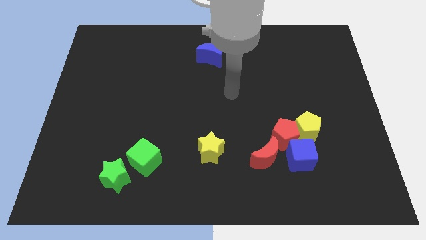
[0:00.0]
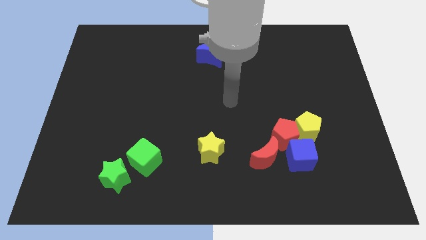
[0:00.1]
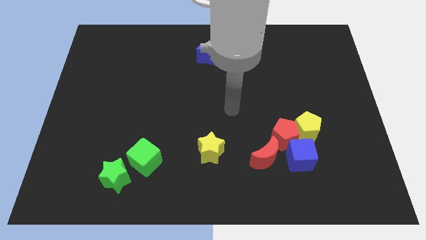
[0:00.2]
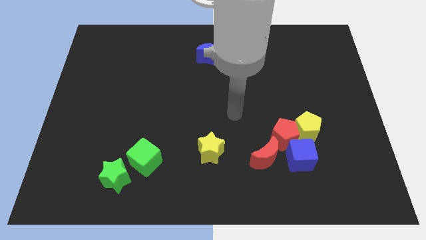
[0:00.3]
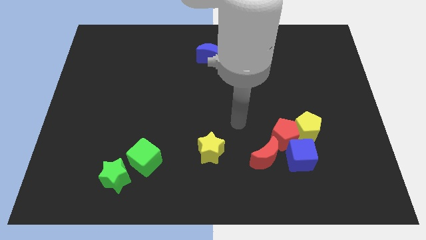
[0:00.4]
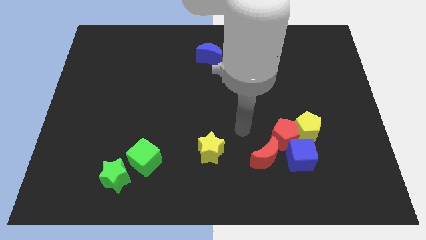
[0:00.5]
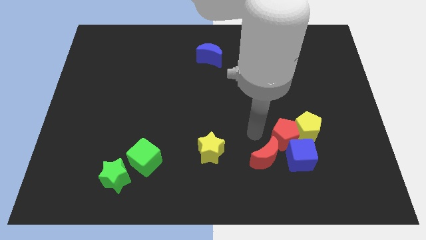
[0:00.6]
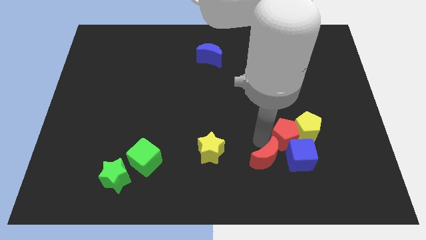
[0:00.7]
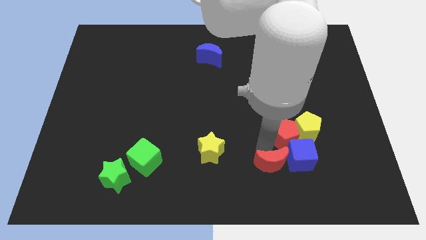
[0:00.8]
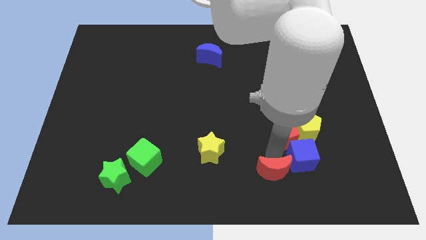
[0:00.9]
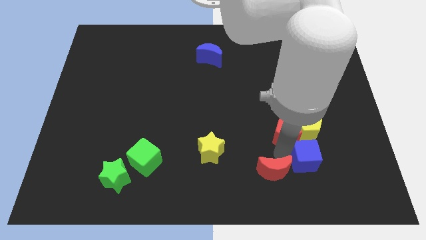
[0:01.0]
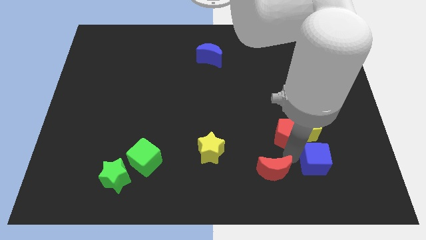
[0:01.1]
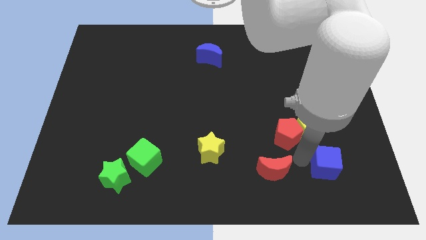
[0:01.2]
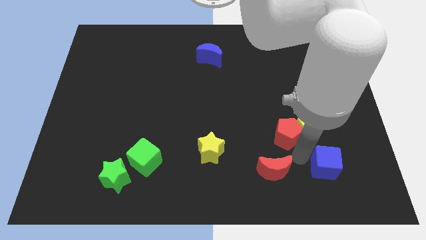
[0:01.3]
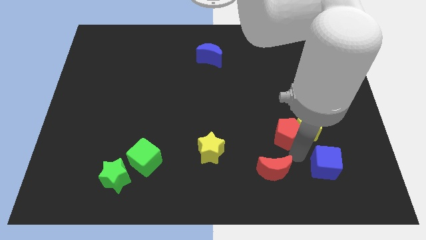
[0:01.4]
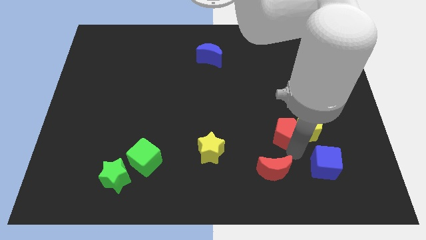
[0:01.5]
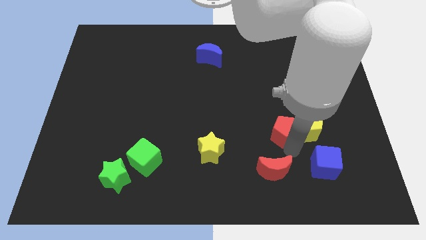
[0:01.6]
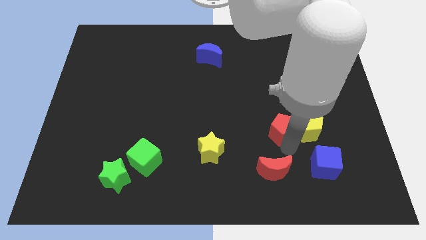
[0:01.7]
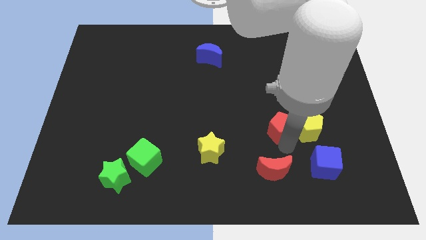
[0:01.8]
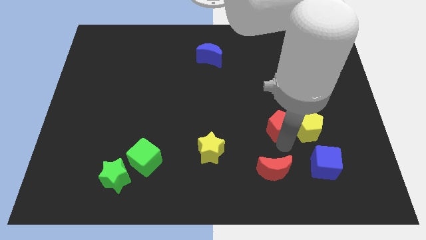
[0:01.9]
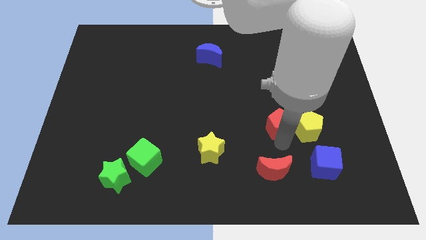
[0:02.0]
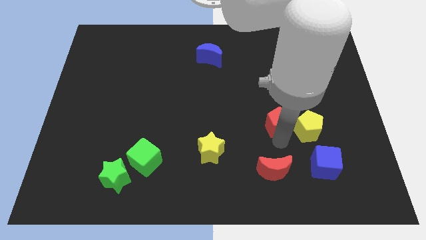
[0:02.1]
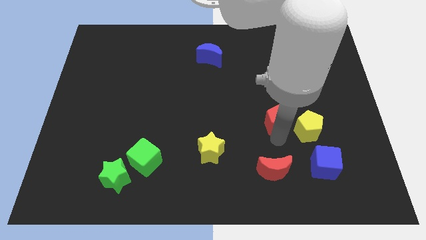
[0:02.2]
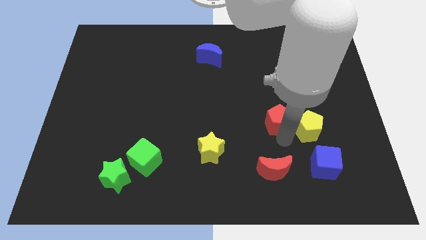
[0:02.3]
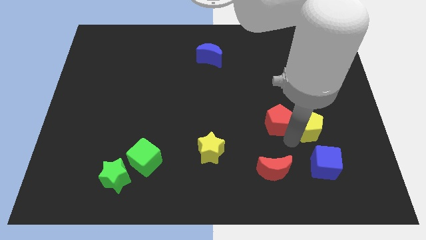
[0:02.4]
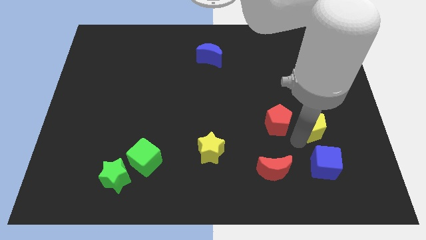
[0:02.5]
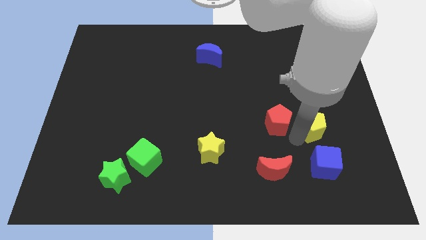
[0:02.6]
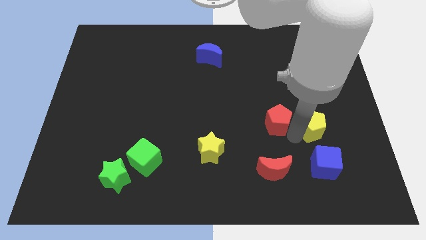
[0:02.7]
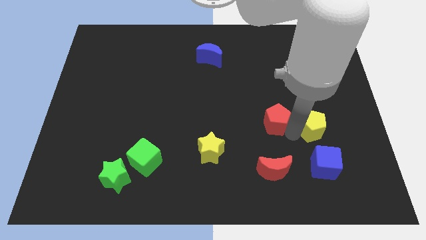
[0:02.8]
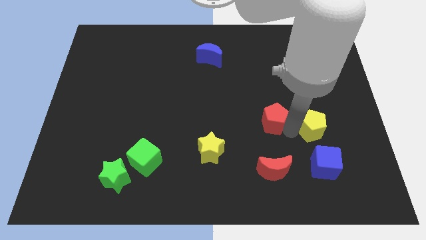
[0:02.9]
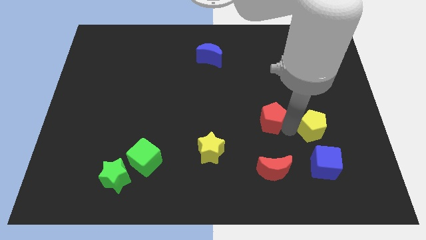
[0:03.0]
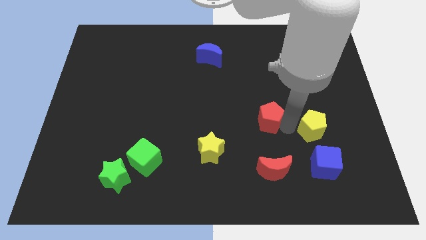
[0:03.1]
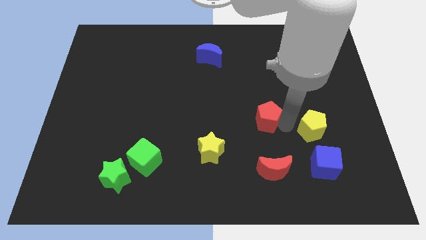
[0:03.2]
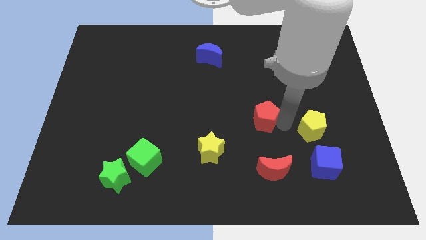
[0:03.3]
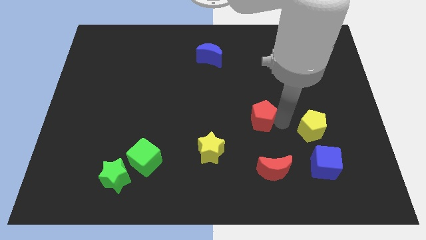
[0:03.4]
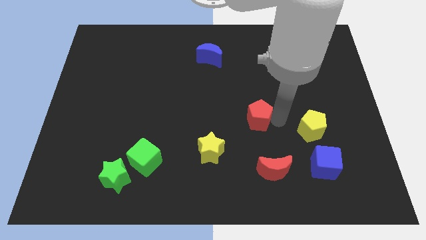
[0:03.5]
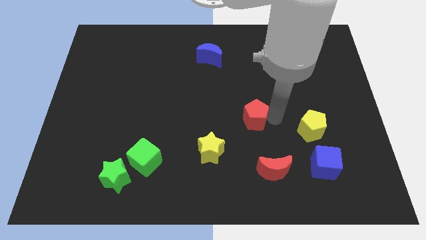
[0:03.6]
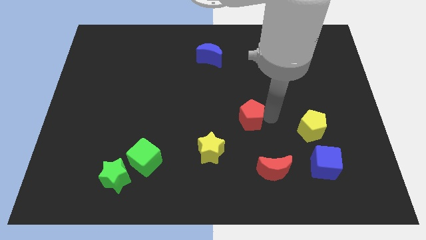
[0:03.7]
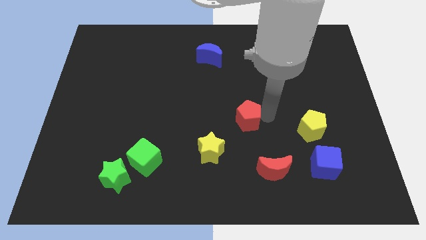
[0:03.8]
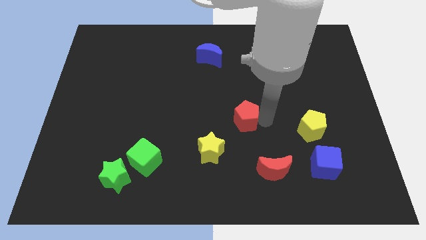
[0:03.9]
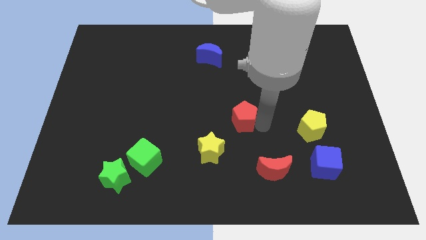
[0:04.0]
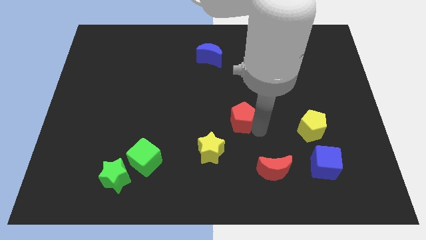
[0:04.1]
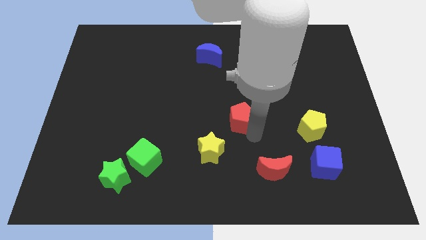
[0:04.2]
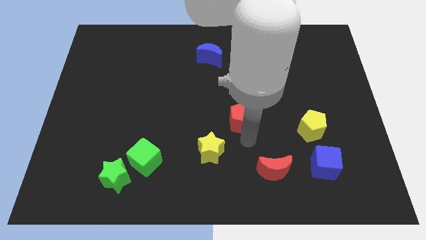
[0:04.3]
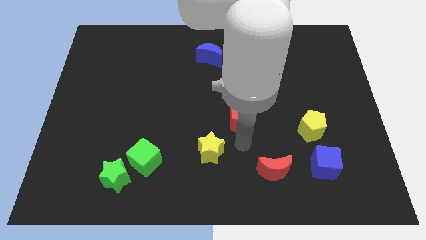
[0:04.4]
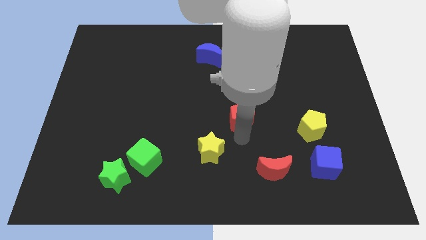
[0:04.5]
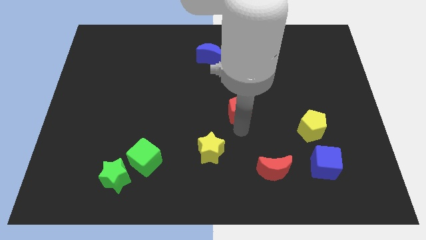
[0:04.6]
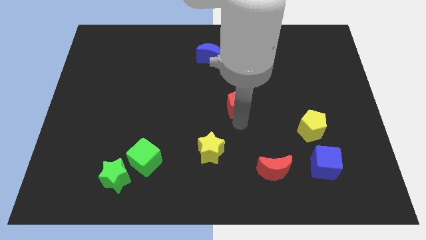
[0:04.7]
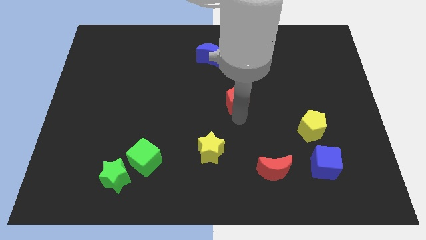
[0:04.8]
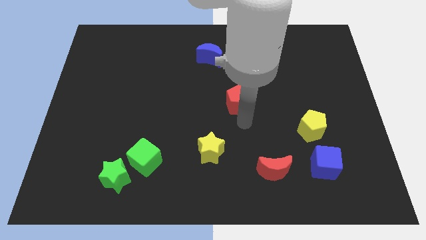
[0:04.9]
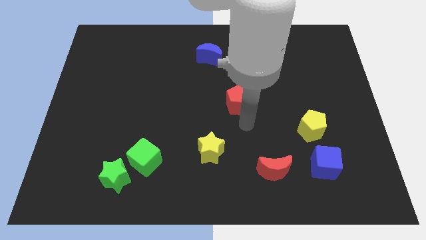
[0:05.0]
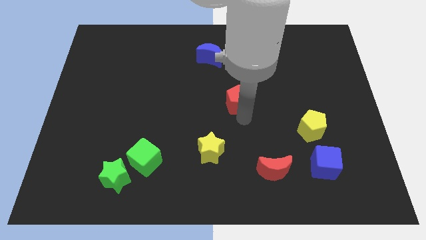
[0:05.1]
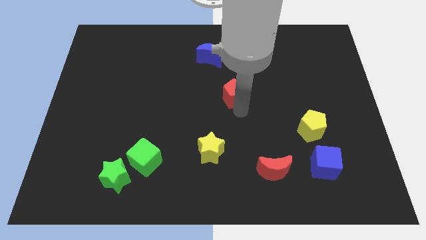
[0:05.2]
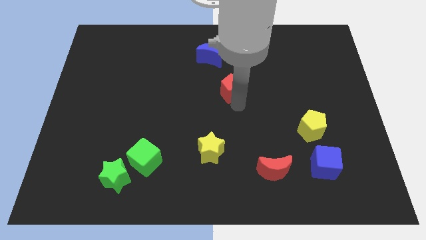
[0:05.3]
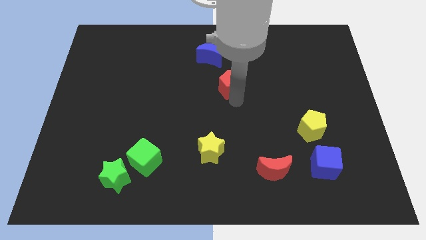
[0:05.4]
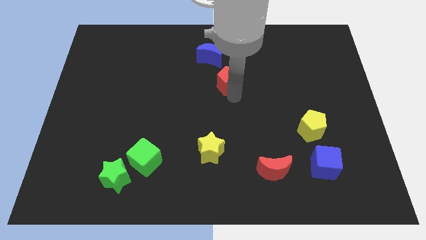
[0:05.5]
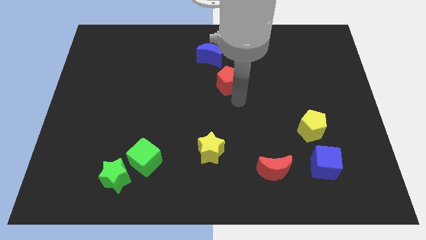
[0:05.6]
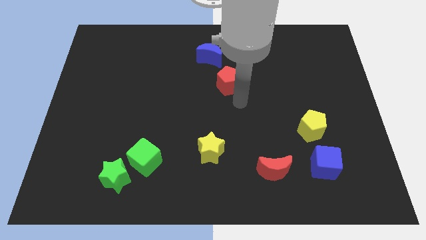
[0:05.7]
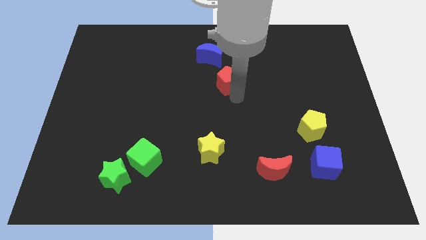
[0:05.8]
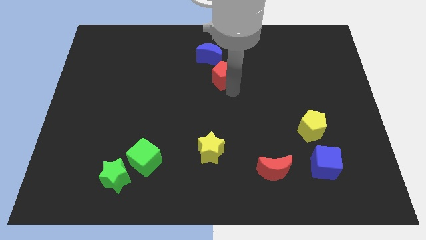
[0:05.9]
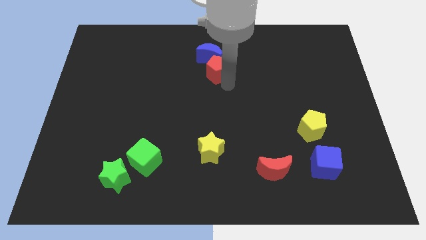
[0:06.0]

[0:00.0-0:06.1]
move the red pentagon towards the blue moon
